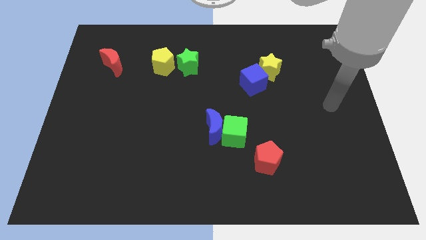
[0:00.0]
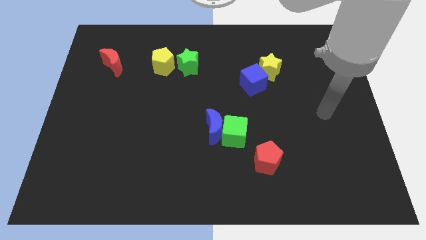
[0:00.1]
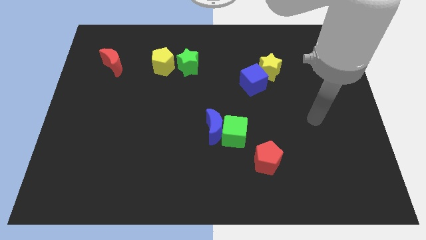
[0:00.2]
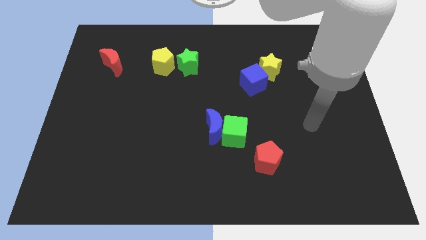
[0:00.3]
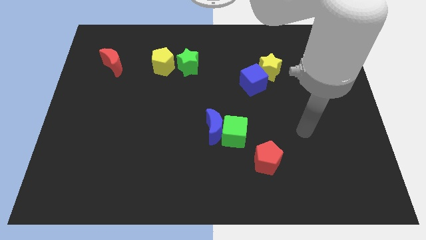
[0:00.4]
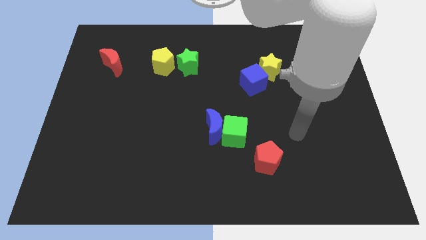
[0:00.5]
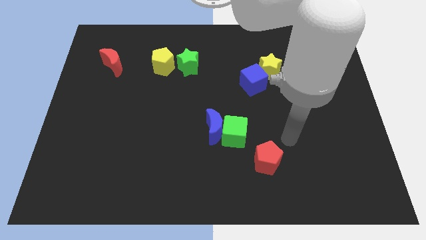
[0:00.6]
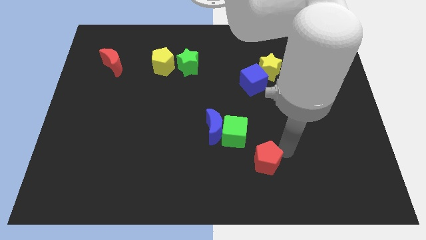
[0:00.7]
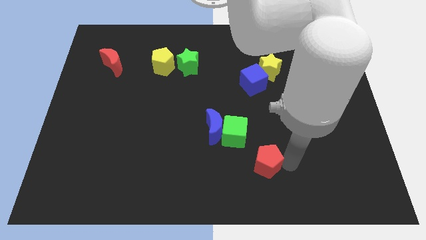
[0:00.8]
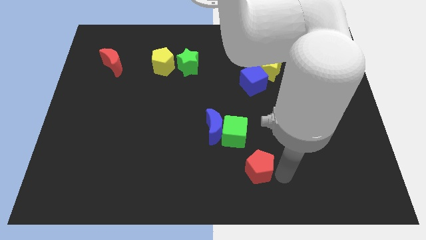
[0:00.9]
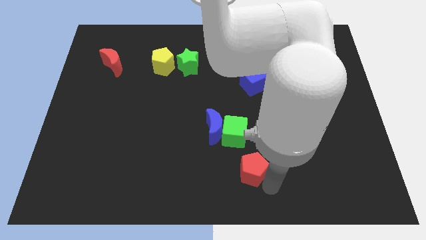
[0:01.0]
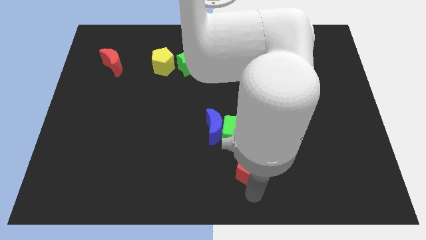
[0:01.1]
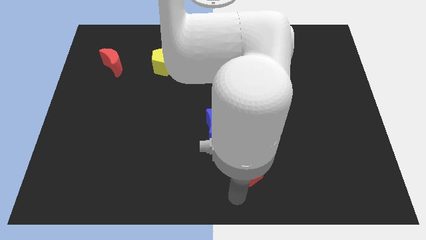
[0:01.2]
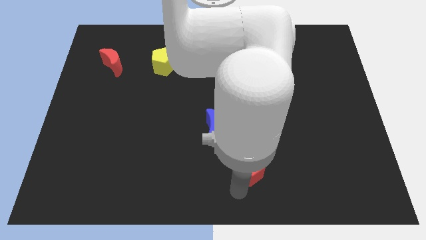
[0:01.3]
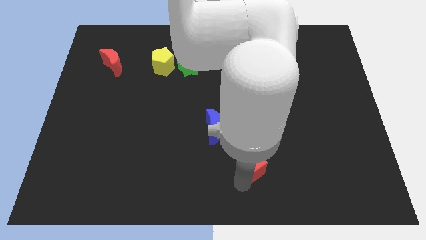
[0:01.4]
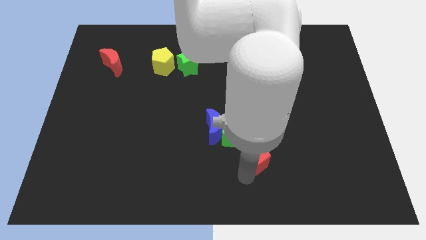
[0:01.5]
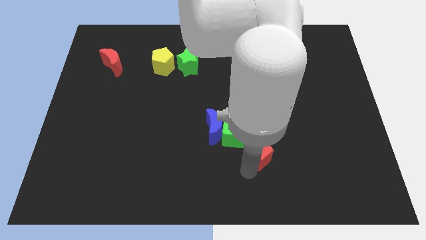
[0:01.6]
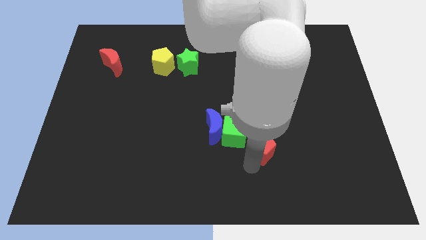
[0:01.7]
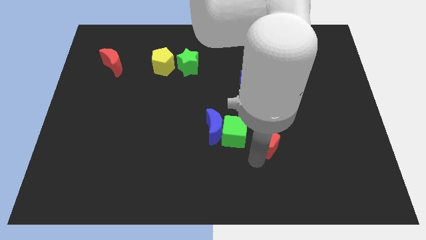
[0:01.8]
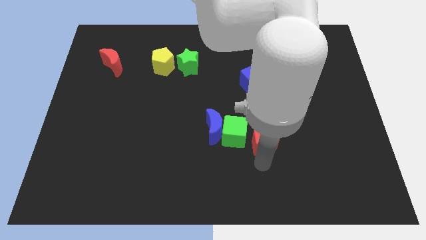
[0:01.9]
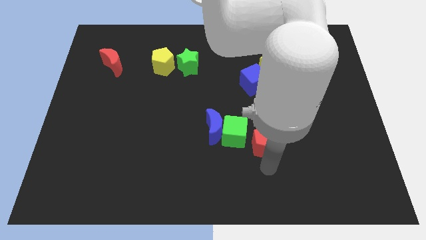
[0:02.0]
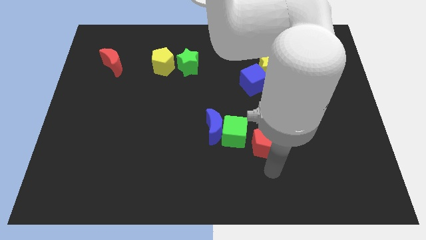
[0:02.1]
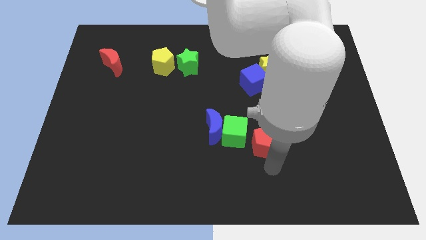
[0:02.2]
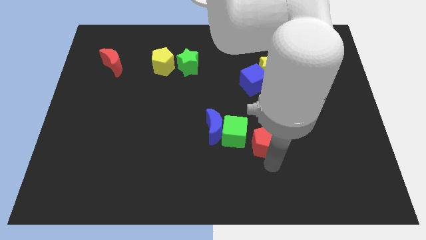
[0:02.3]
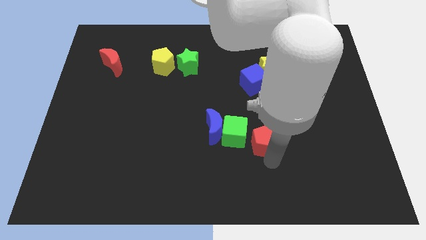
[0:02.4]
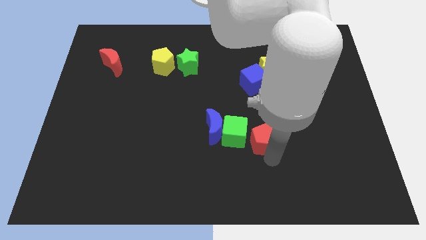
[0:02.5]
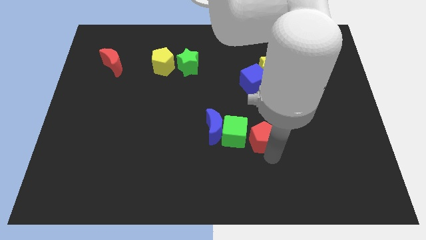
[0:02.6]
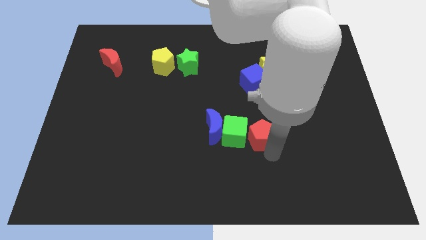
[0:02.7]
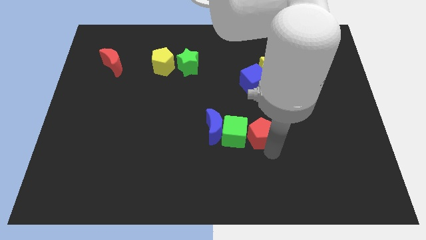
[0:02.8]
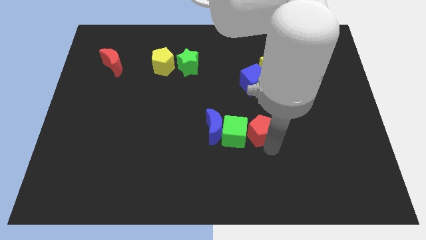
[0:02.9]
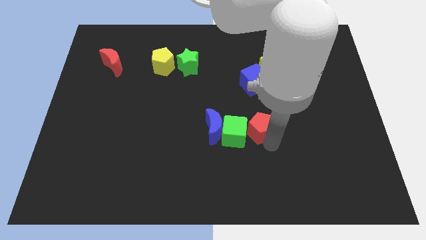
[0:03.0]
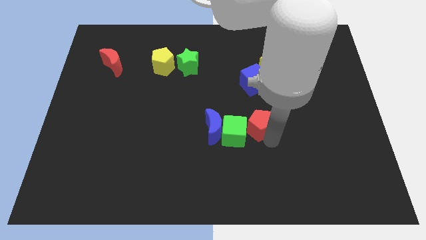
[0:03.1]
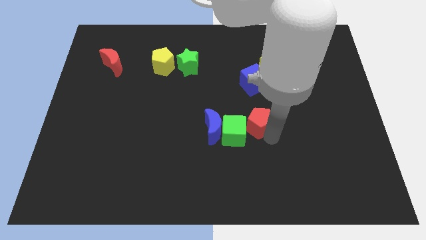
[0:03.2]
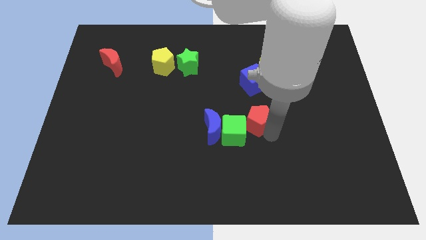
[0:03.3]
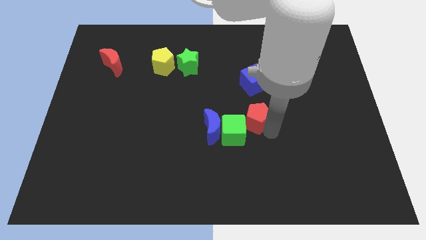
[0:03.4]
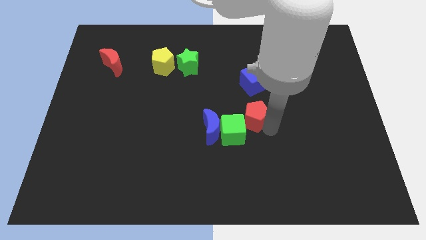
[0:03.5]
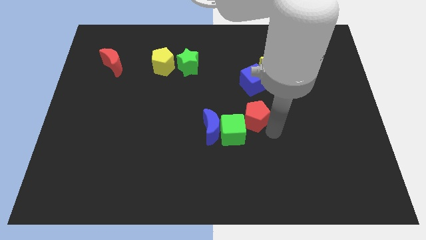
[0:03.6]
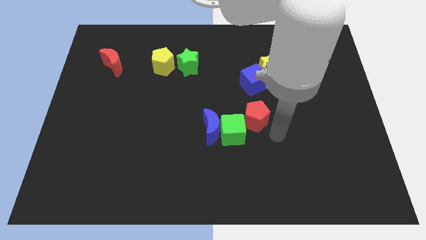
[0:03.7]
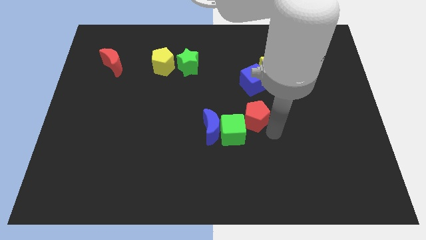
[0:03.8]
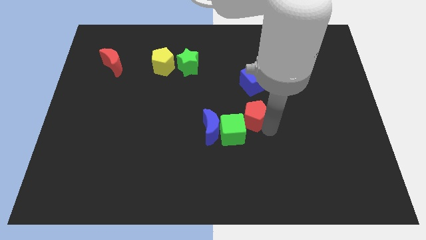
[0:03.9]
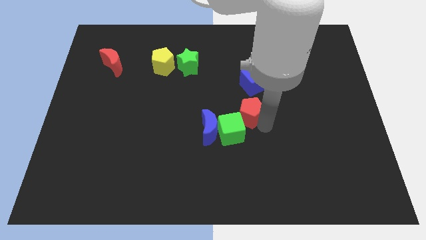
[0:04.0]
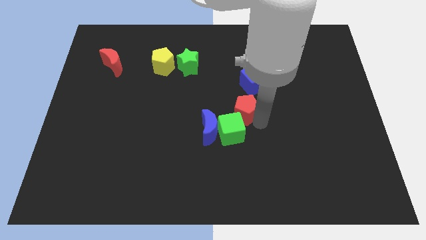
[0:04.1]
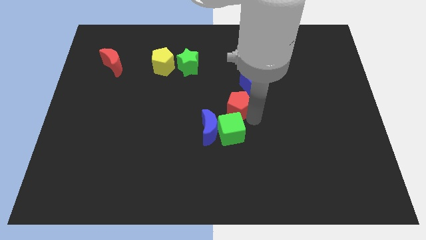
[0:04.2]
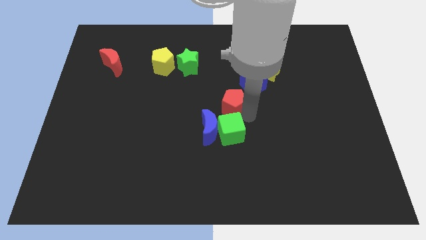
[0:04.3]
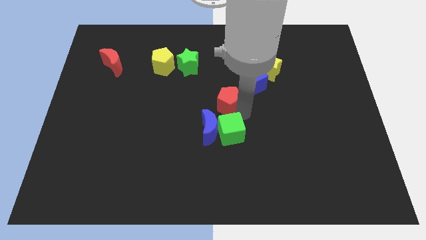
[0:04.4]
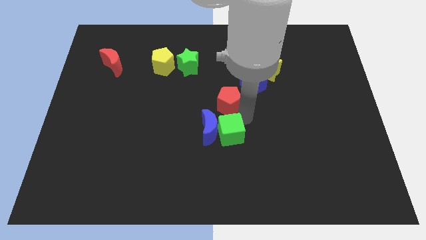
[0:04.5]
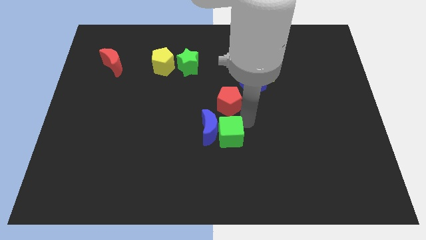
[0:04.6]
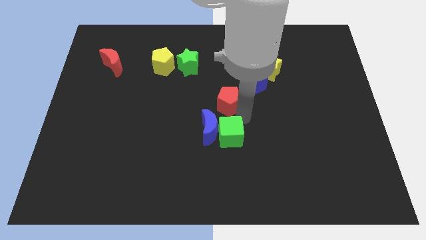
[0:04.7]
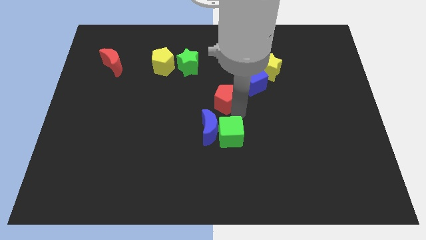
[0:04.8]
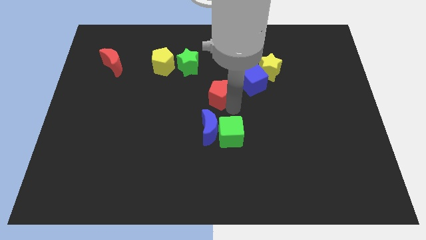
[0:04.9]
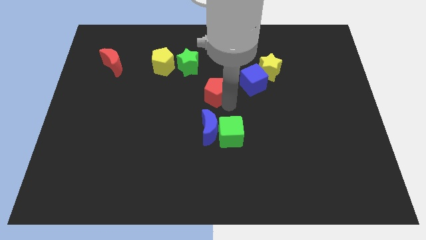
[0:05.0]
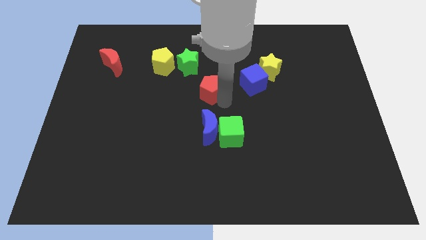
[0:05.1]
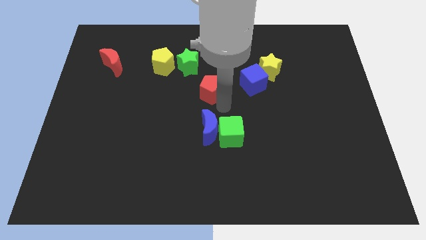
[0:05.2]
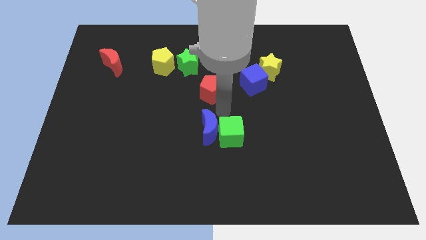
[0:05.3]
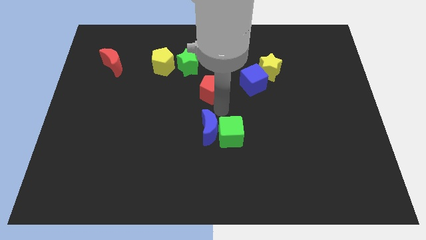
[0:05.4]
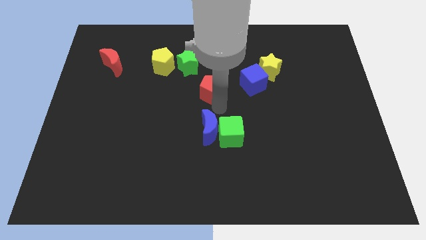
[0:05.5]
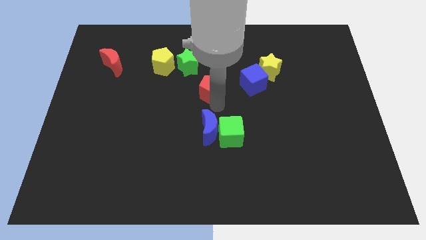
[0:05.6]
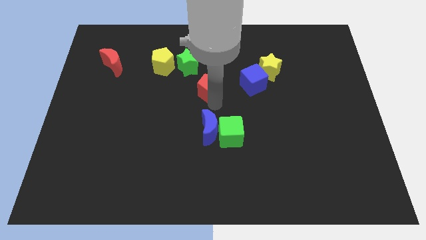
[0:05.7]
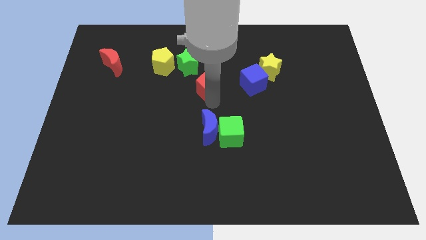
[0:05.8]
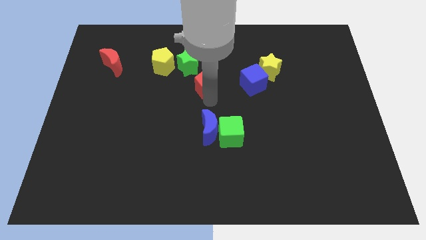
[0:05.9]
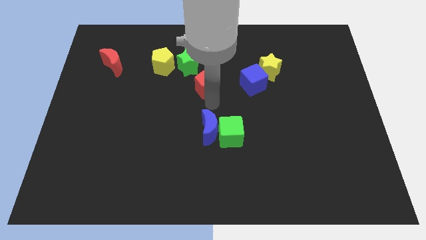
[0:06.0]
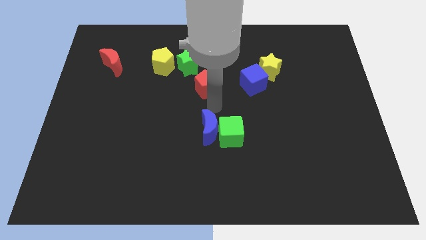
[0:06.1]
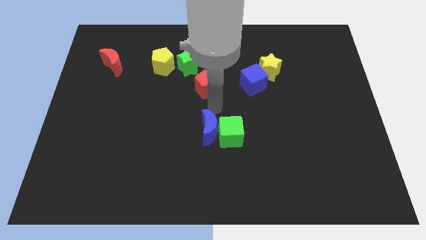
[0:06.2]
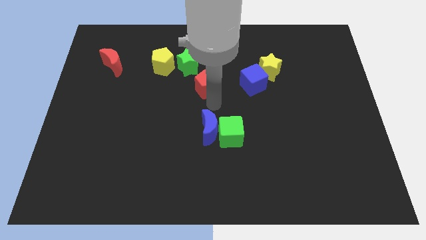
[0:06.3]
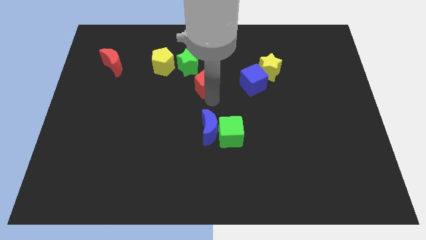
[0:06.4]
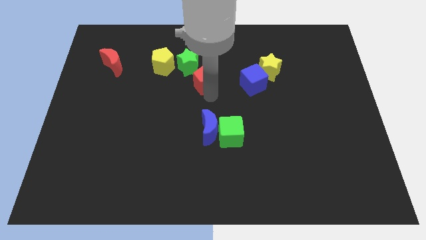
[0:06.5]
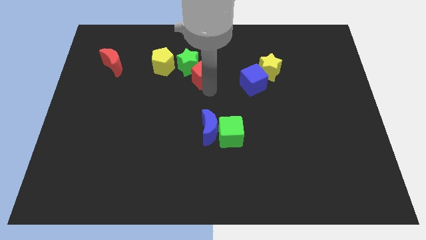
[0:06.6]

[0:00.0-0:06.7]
push the red pentagon close to the green star

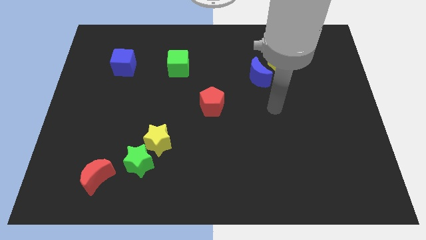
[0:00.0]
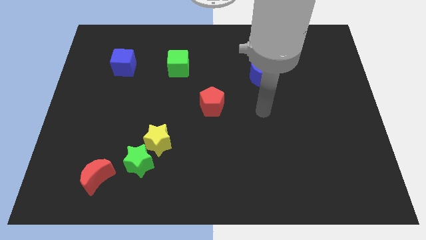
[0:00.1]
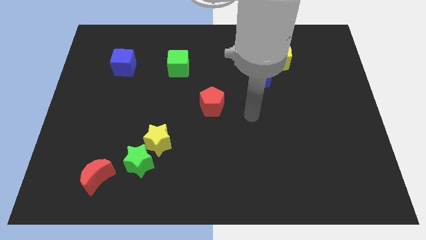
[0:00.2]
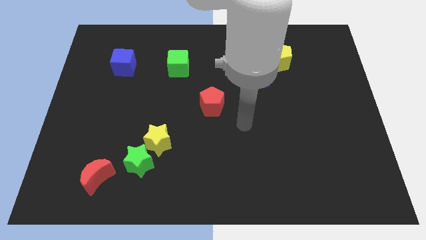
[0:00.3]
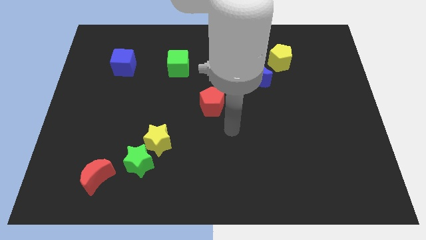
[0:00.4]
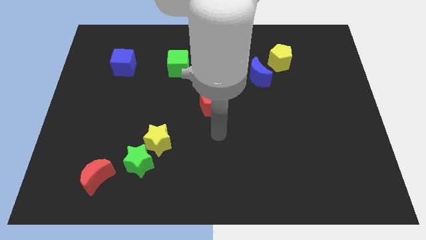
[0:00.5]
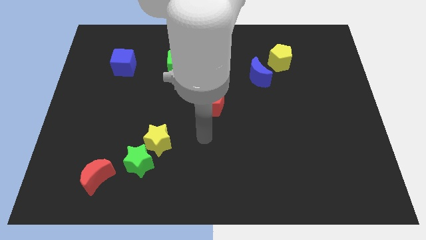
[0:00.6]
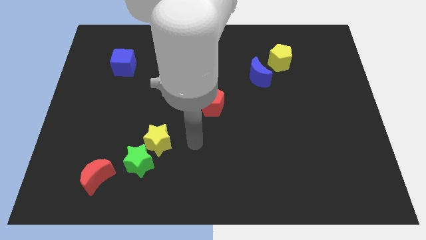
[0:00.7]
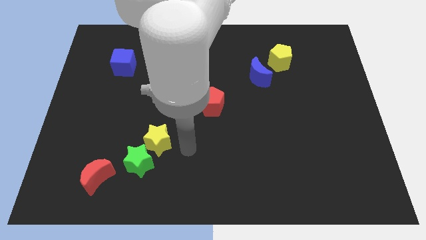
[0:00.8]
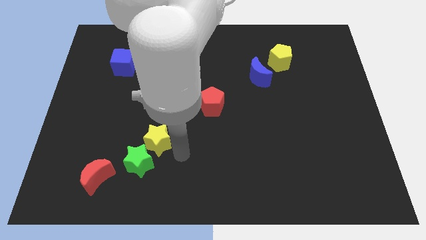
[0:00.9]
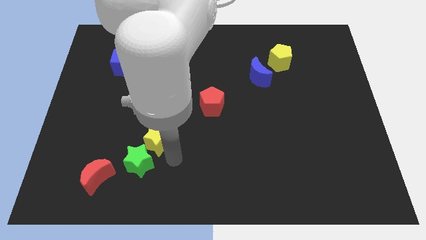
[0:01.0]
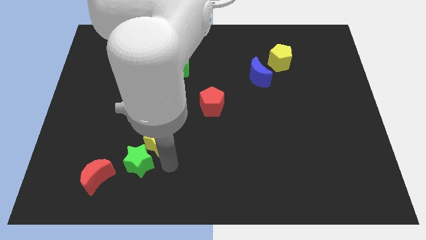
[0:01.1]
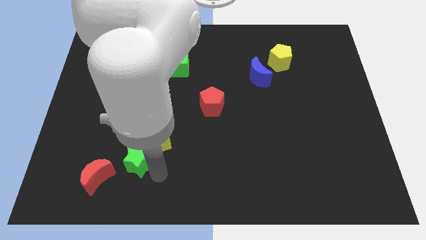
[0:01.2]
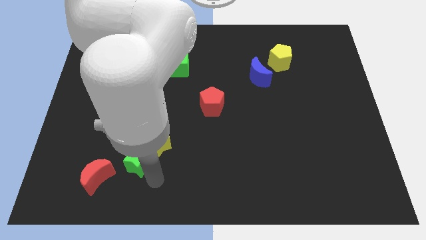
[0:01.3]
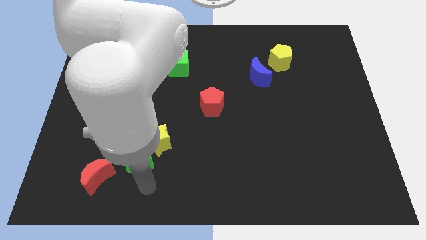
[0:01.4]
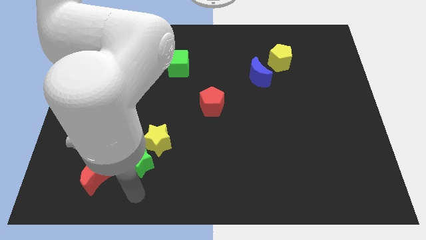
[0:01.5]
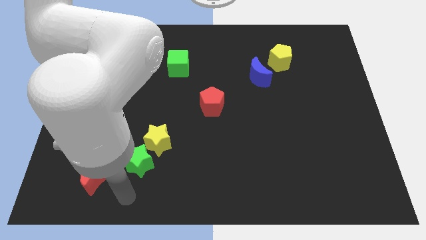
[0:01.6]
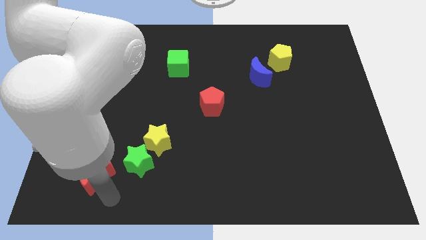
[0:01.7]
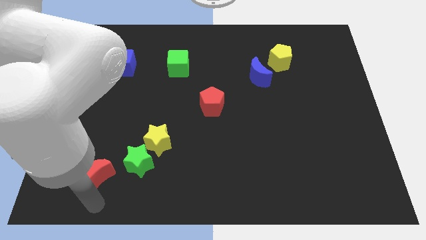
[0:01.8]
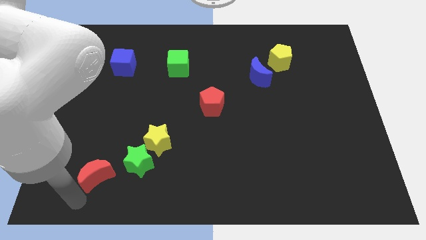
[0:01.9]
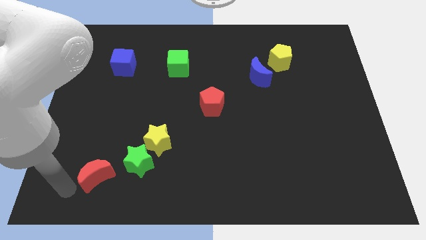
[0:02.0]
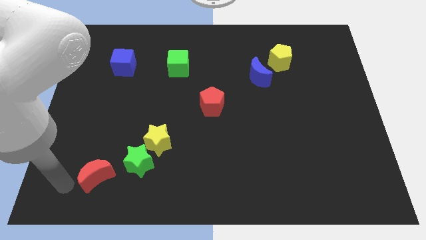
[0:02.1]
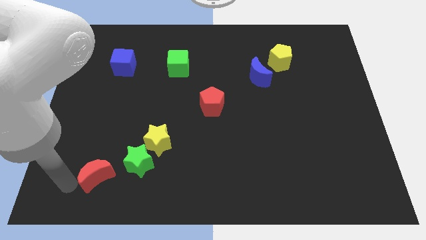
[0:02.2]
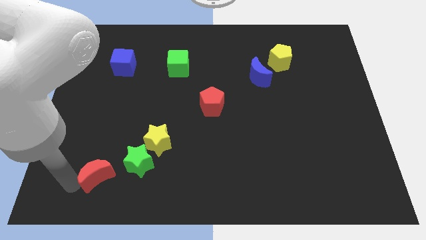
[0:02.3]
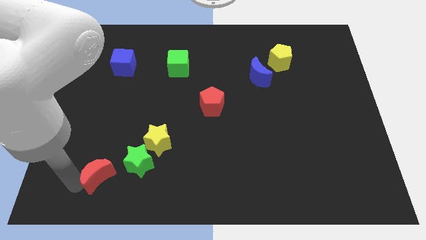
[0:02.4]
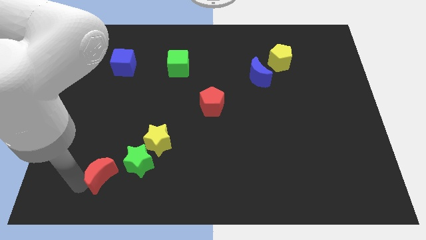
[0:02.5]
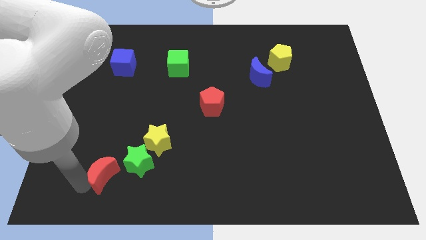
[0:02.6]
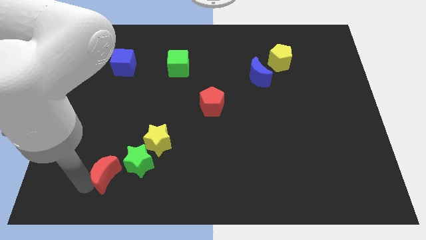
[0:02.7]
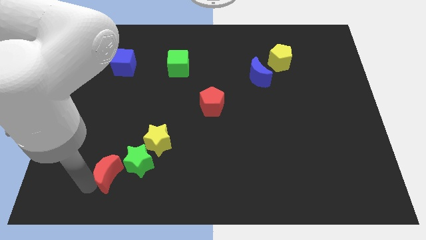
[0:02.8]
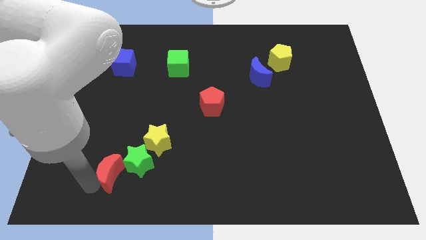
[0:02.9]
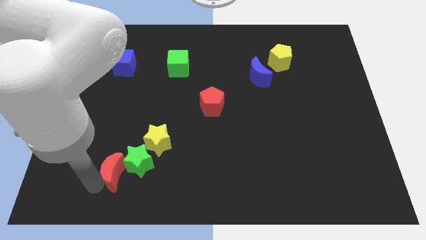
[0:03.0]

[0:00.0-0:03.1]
move the red moon next to the green star
